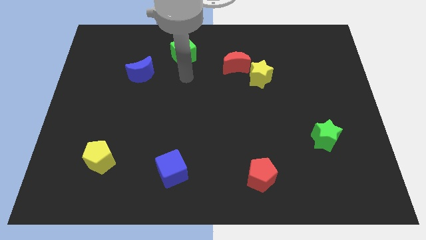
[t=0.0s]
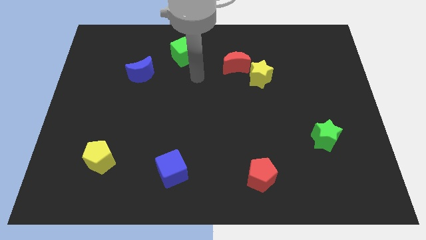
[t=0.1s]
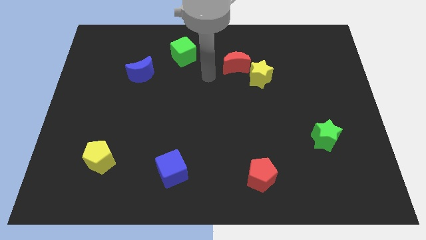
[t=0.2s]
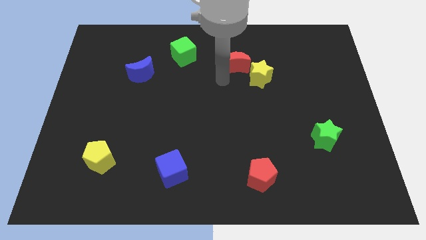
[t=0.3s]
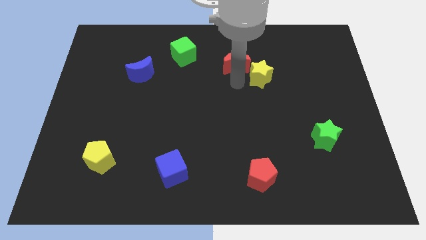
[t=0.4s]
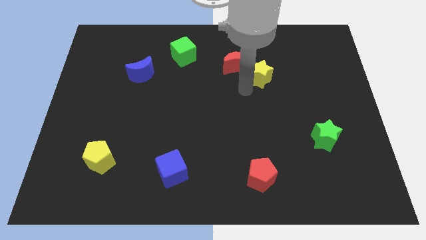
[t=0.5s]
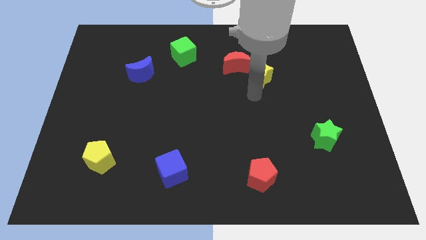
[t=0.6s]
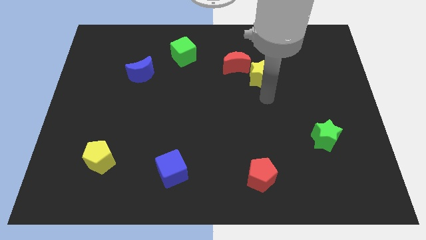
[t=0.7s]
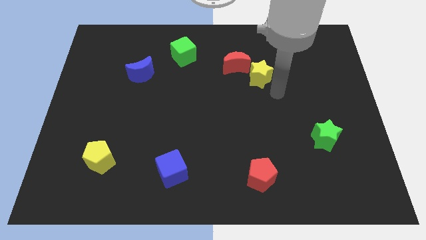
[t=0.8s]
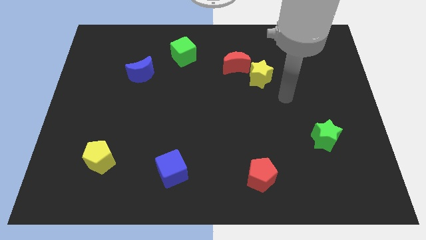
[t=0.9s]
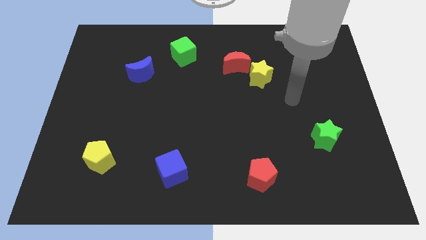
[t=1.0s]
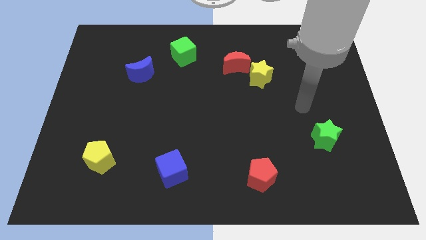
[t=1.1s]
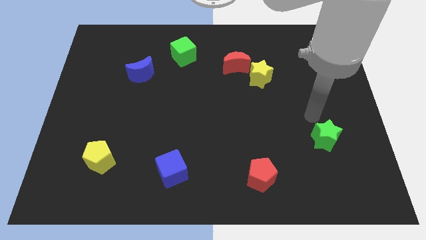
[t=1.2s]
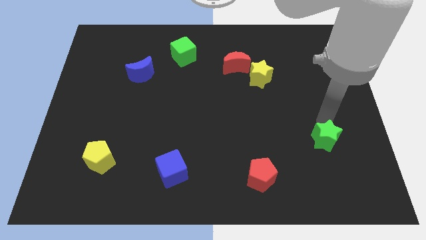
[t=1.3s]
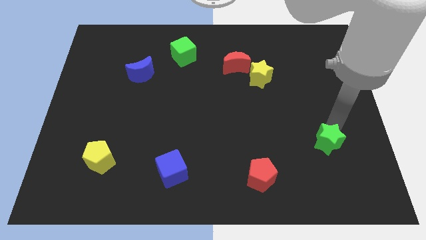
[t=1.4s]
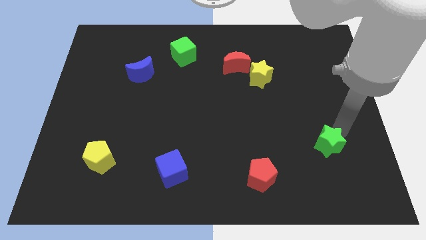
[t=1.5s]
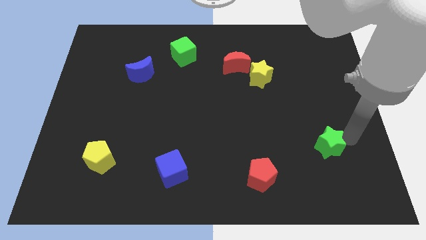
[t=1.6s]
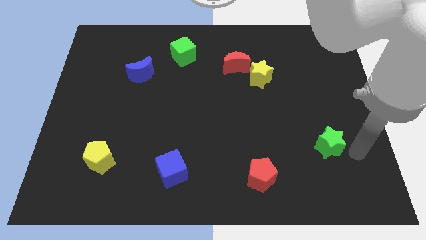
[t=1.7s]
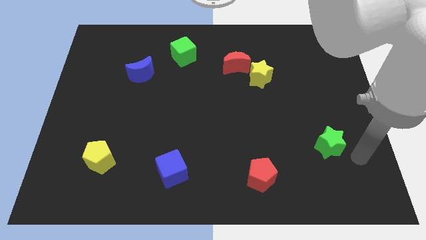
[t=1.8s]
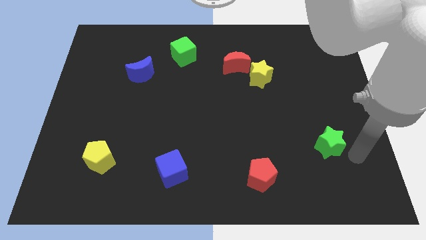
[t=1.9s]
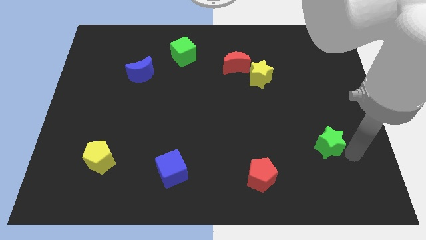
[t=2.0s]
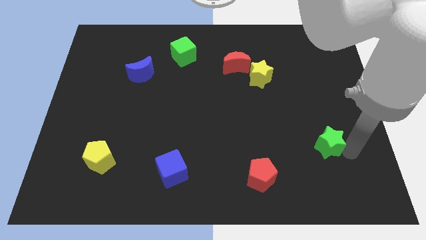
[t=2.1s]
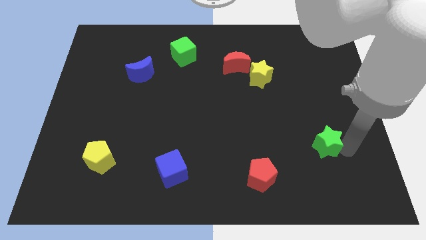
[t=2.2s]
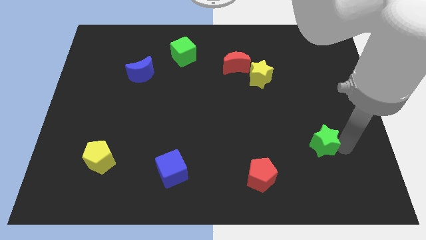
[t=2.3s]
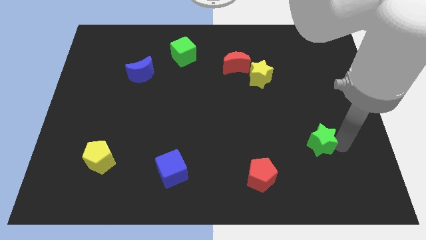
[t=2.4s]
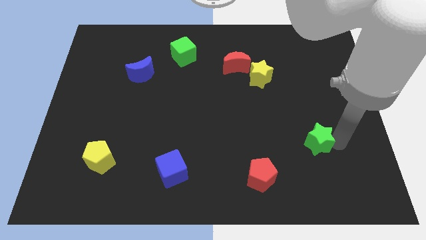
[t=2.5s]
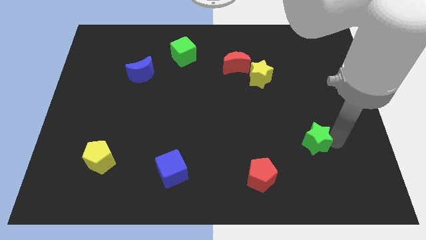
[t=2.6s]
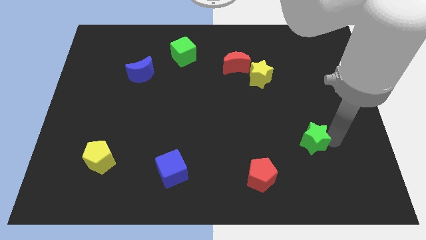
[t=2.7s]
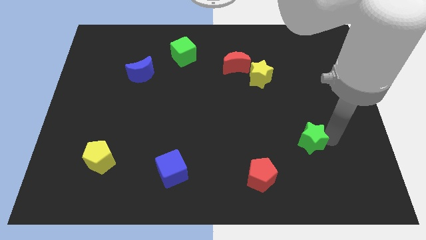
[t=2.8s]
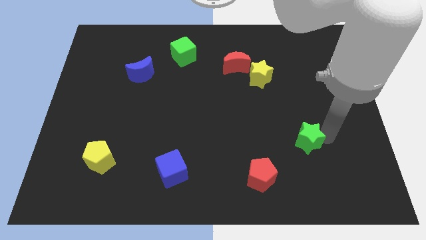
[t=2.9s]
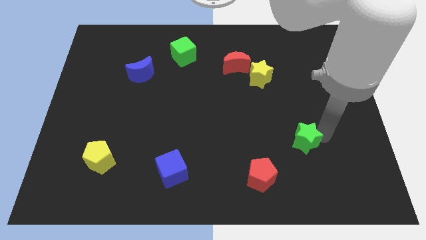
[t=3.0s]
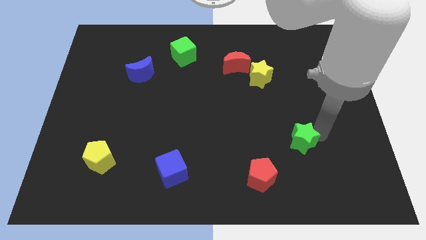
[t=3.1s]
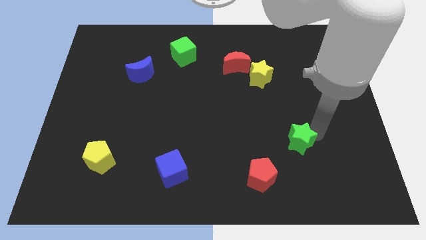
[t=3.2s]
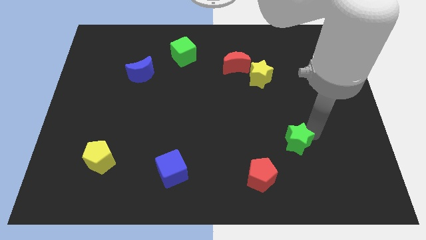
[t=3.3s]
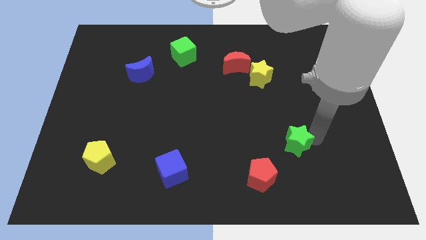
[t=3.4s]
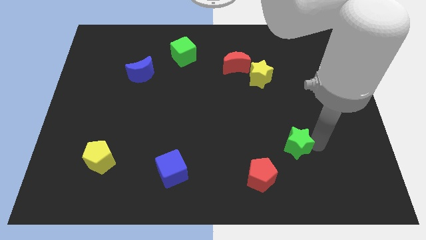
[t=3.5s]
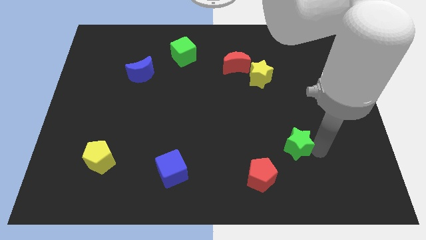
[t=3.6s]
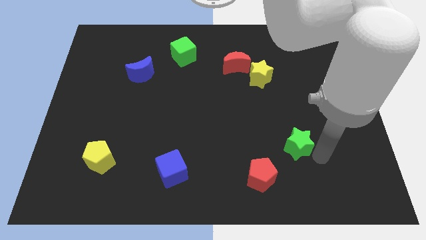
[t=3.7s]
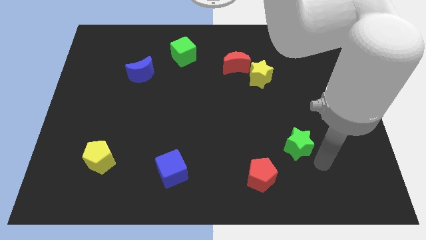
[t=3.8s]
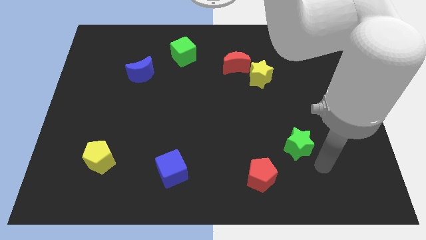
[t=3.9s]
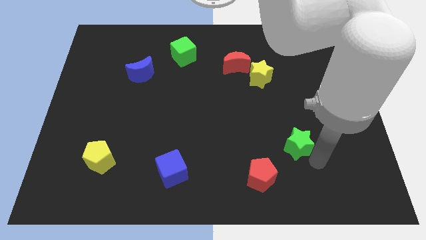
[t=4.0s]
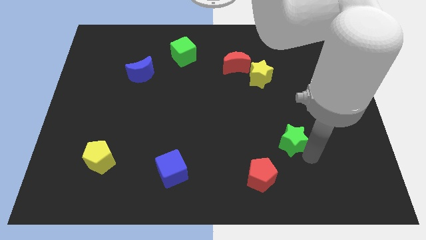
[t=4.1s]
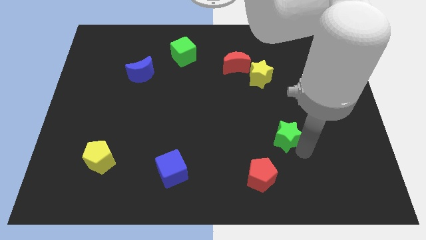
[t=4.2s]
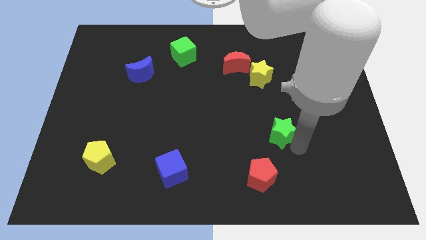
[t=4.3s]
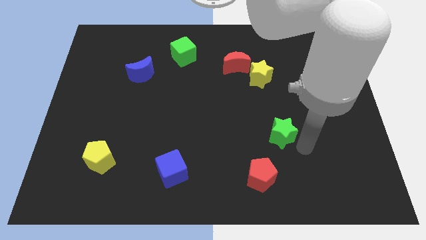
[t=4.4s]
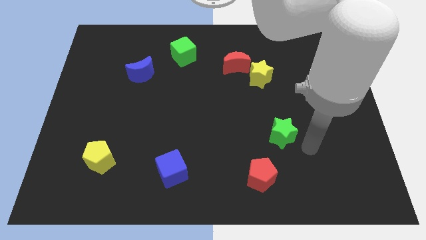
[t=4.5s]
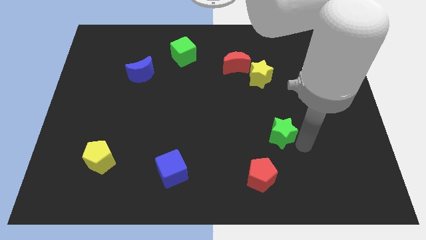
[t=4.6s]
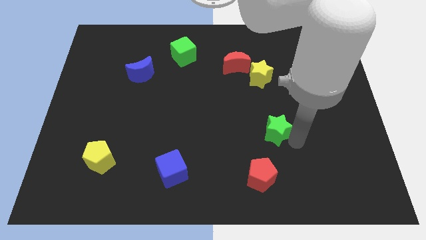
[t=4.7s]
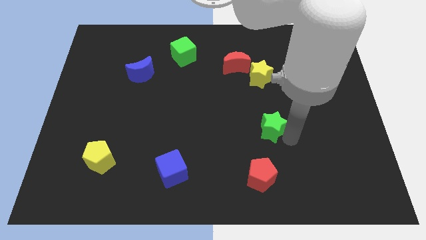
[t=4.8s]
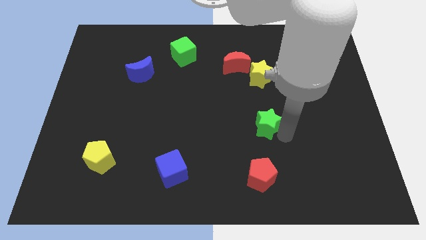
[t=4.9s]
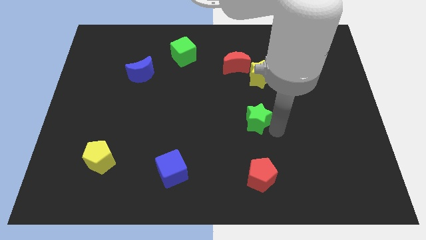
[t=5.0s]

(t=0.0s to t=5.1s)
push the green star to the middle

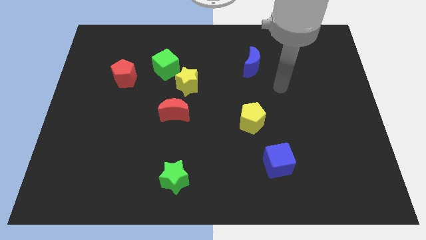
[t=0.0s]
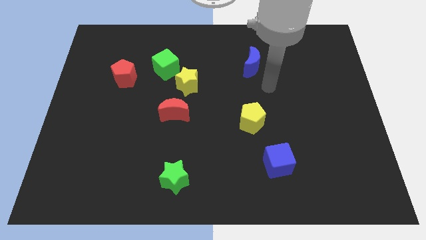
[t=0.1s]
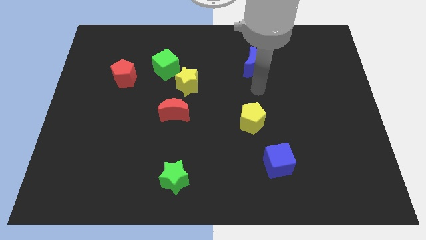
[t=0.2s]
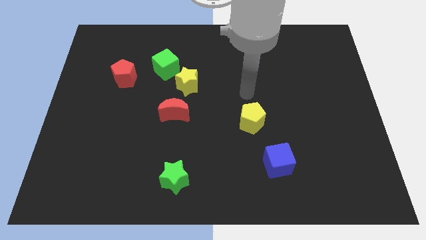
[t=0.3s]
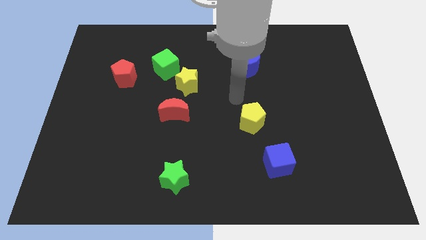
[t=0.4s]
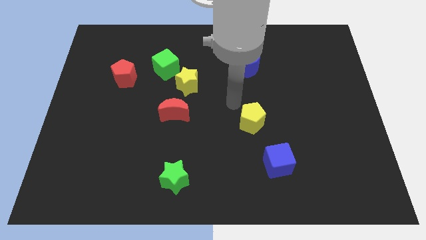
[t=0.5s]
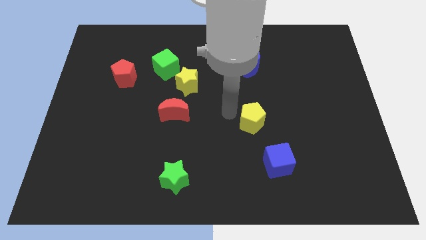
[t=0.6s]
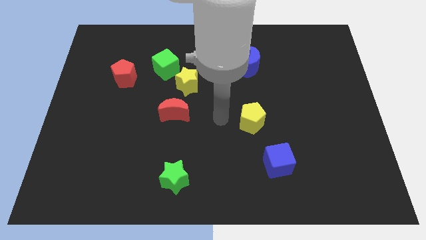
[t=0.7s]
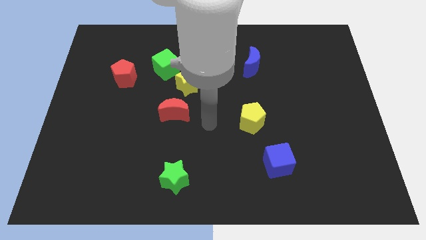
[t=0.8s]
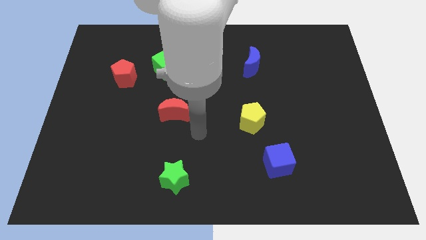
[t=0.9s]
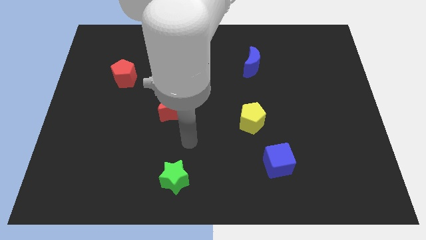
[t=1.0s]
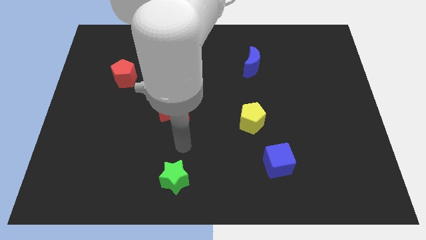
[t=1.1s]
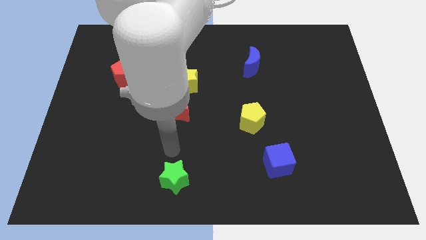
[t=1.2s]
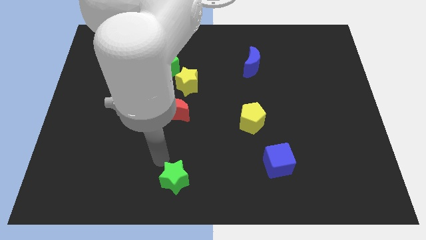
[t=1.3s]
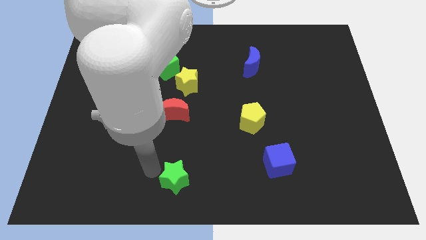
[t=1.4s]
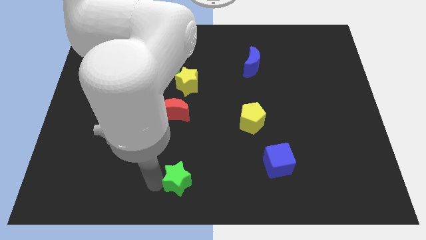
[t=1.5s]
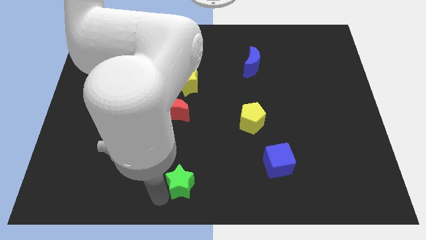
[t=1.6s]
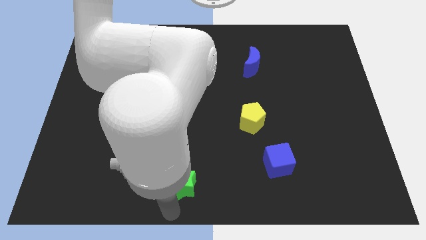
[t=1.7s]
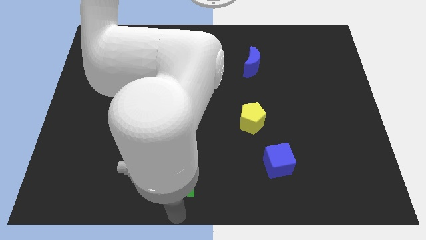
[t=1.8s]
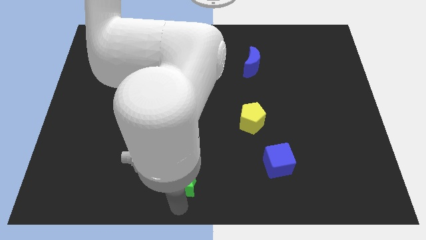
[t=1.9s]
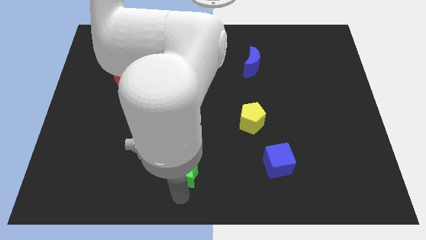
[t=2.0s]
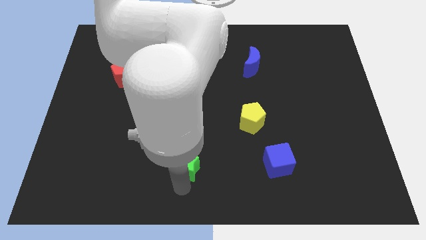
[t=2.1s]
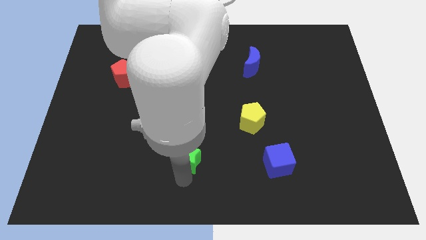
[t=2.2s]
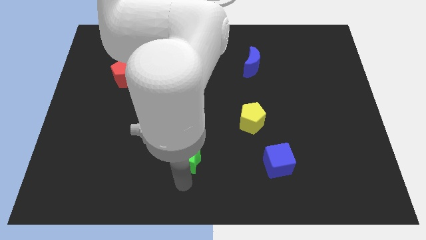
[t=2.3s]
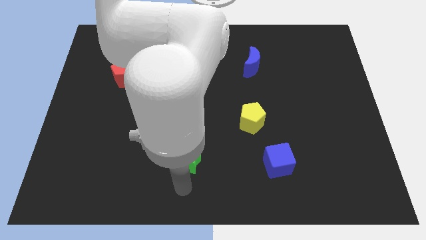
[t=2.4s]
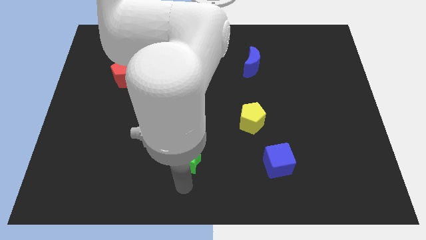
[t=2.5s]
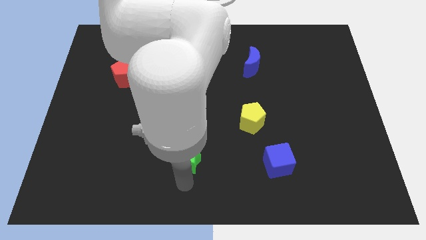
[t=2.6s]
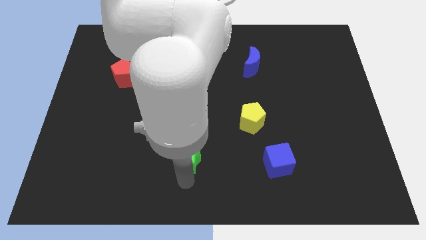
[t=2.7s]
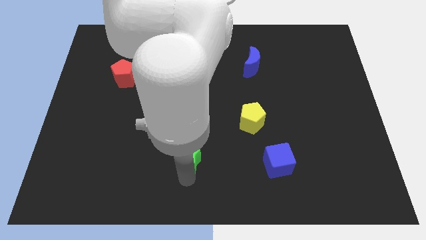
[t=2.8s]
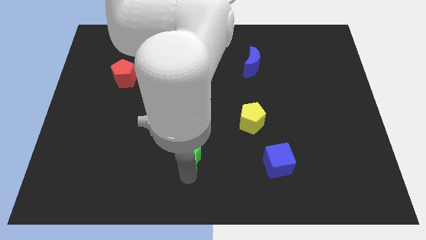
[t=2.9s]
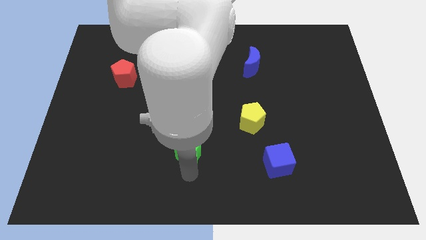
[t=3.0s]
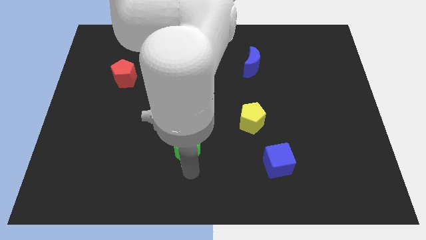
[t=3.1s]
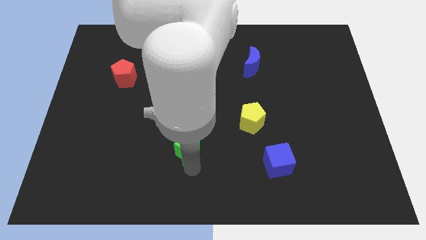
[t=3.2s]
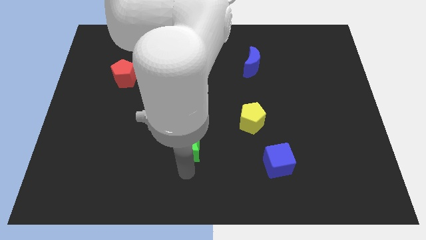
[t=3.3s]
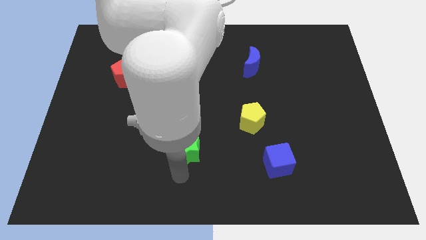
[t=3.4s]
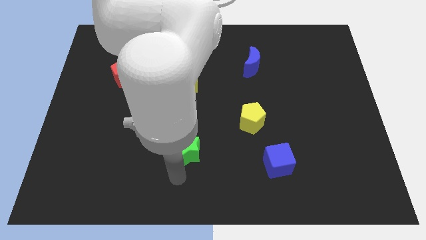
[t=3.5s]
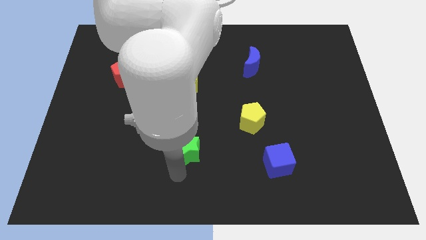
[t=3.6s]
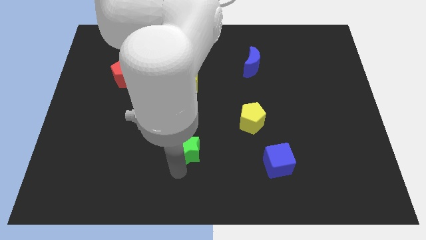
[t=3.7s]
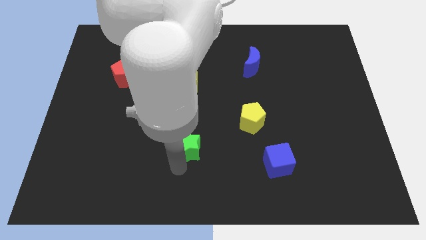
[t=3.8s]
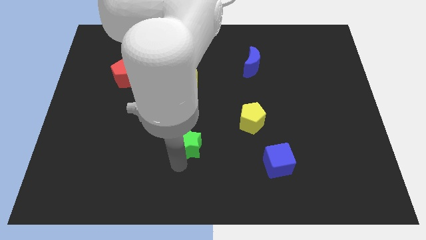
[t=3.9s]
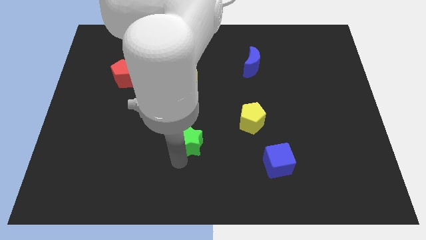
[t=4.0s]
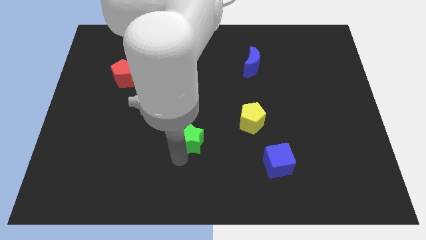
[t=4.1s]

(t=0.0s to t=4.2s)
push the green star to the center
